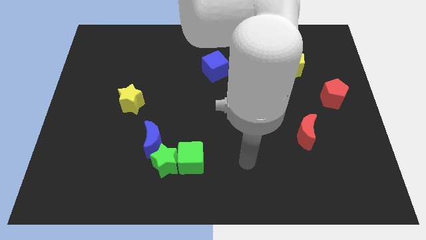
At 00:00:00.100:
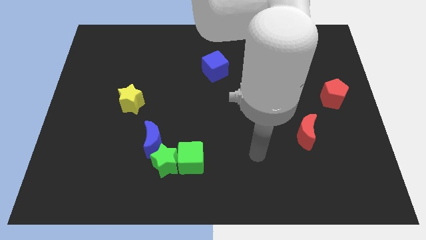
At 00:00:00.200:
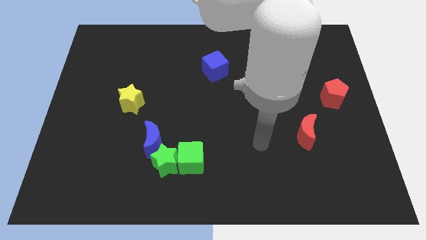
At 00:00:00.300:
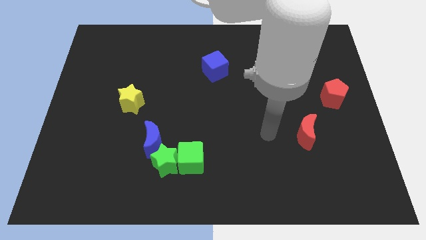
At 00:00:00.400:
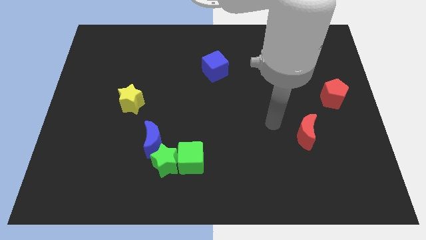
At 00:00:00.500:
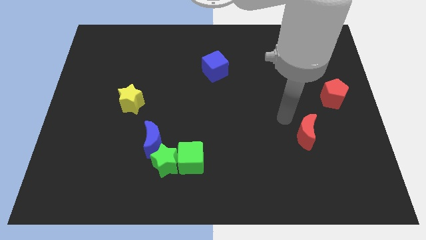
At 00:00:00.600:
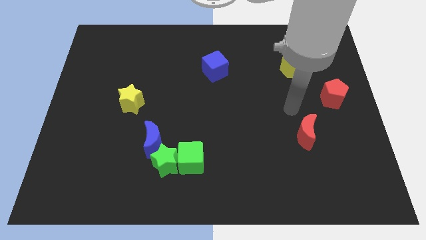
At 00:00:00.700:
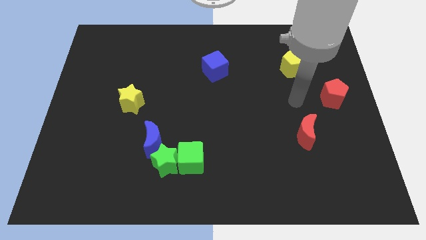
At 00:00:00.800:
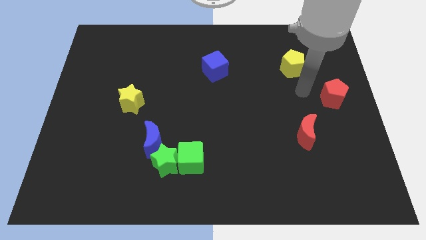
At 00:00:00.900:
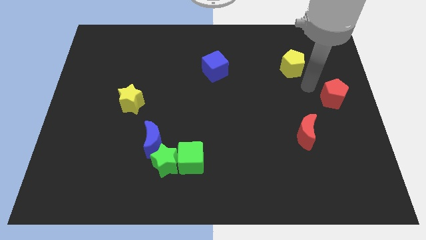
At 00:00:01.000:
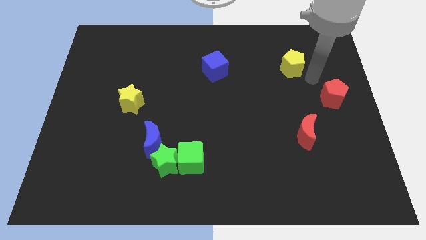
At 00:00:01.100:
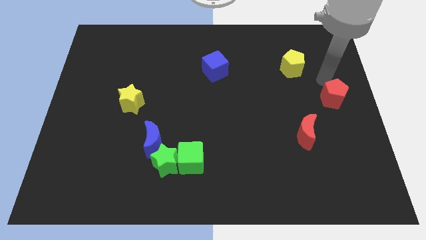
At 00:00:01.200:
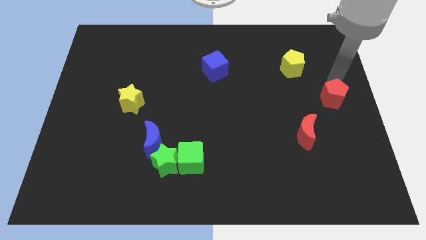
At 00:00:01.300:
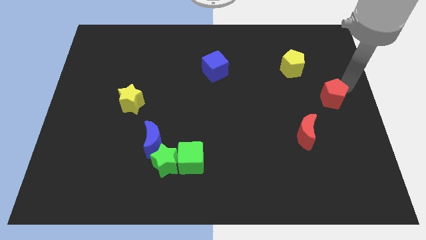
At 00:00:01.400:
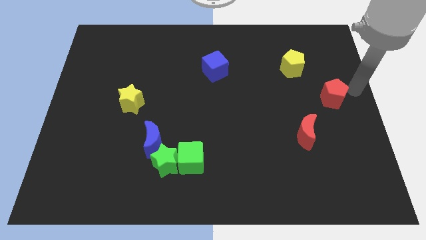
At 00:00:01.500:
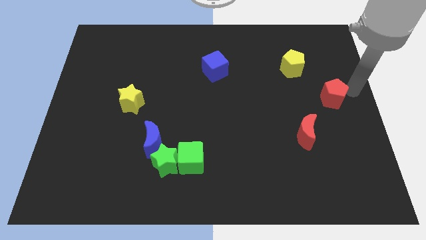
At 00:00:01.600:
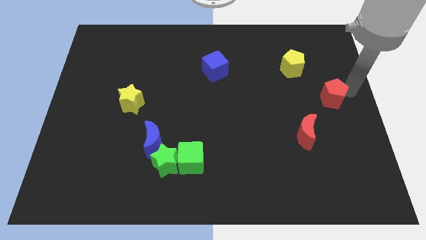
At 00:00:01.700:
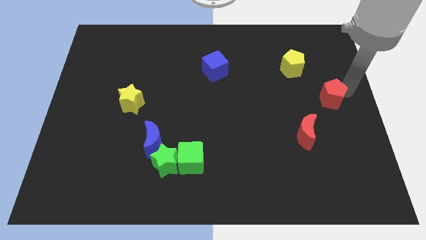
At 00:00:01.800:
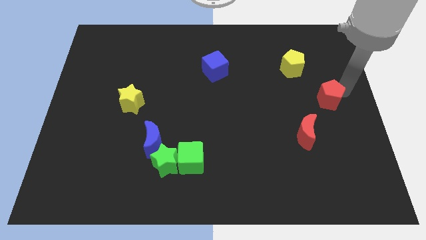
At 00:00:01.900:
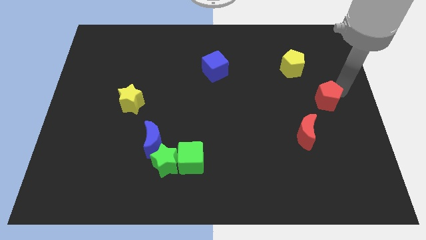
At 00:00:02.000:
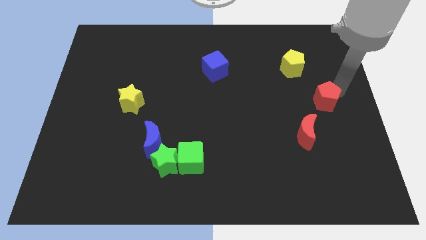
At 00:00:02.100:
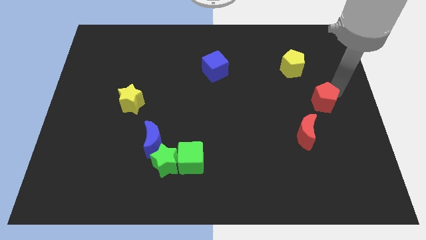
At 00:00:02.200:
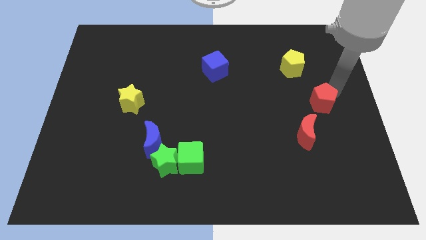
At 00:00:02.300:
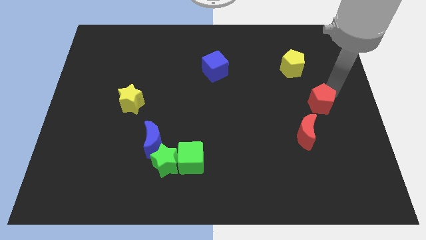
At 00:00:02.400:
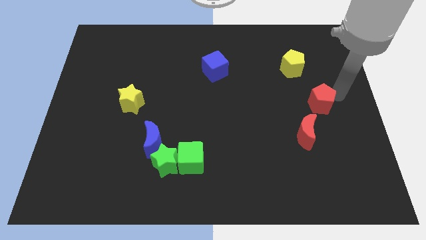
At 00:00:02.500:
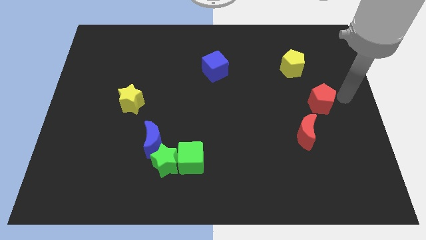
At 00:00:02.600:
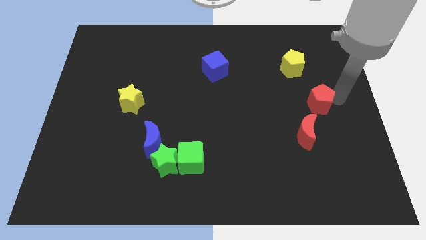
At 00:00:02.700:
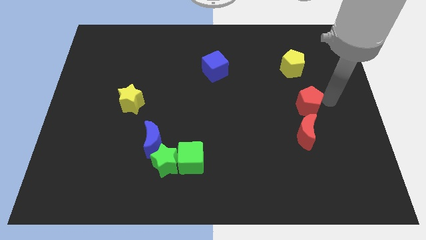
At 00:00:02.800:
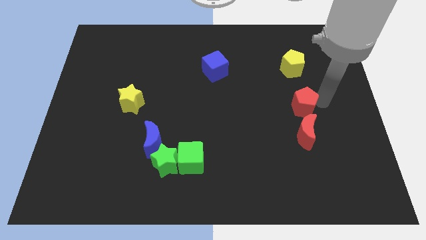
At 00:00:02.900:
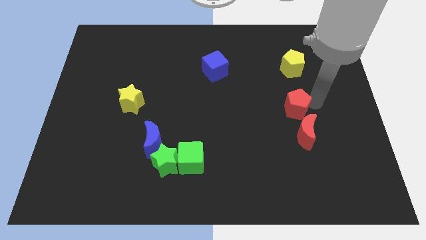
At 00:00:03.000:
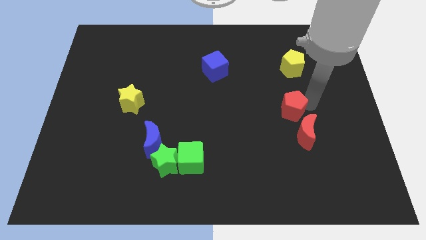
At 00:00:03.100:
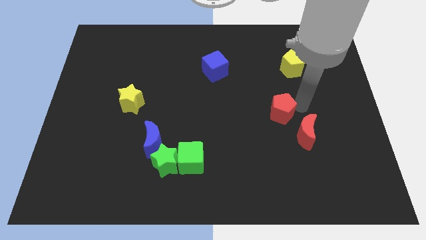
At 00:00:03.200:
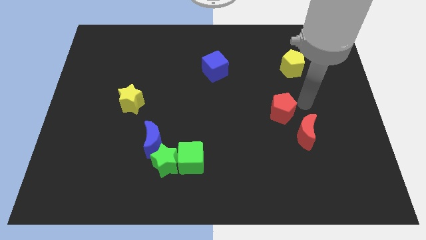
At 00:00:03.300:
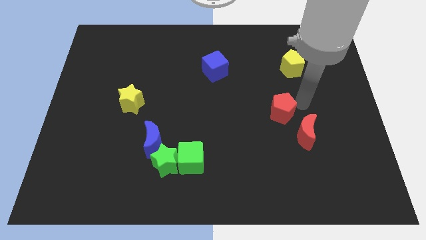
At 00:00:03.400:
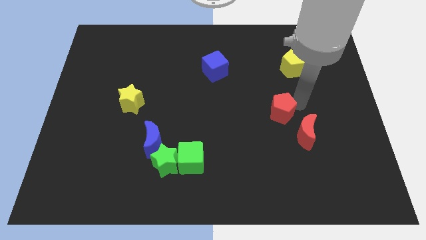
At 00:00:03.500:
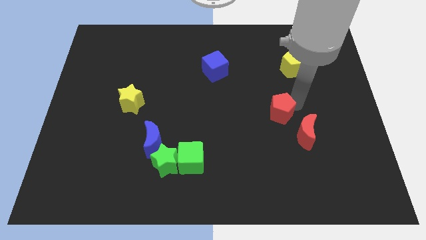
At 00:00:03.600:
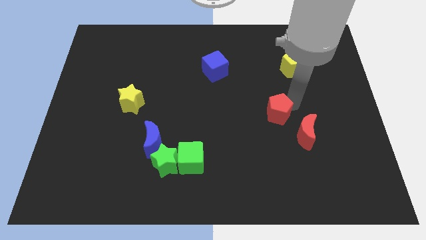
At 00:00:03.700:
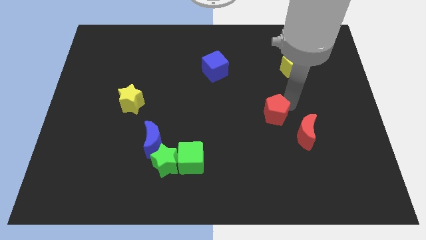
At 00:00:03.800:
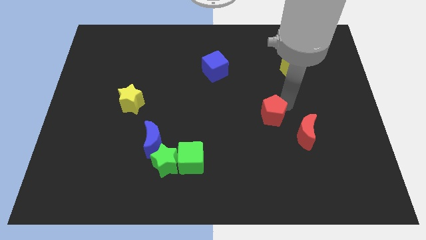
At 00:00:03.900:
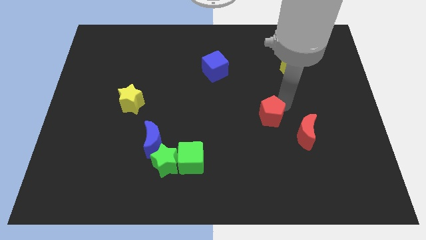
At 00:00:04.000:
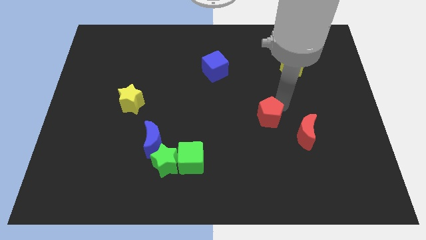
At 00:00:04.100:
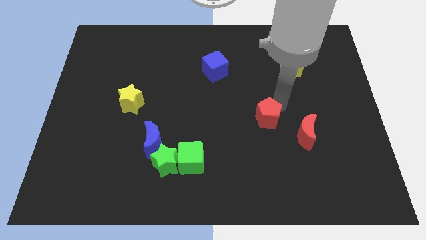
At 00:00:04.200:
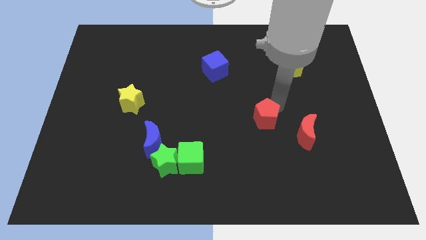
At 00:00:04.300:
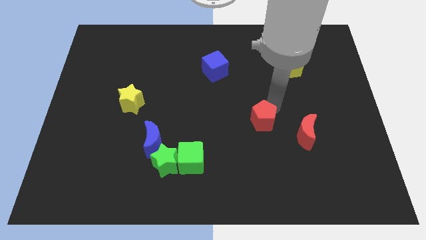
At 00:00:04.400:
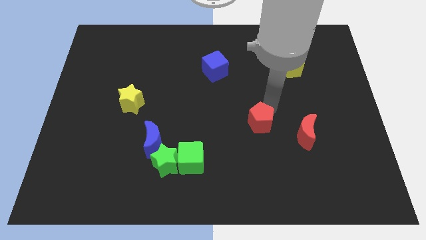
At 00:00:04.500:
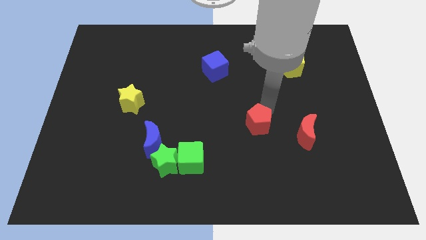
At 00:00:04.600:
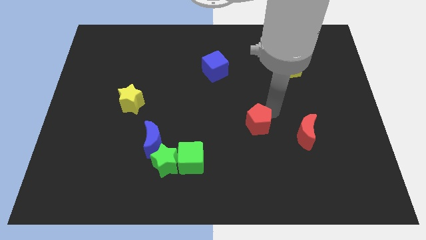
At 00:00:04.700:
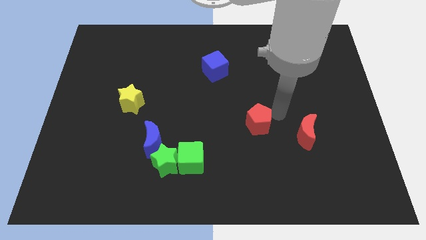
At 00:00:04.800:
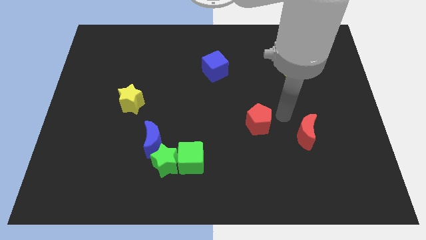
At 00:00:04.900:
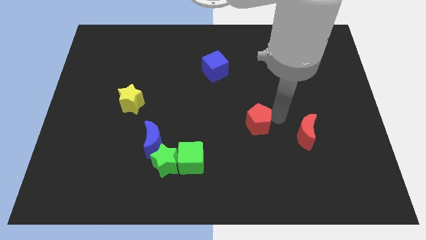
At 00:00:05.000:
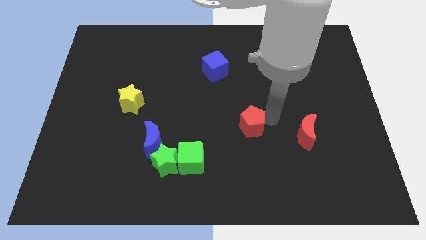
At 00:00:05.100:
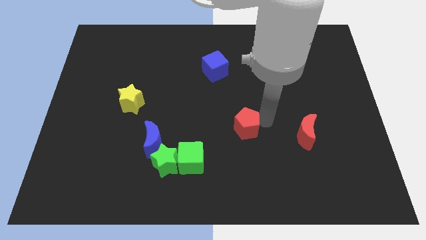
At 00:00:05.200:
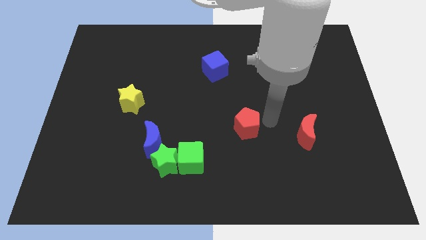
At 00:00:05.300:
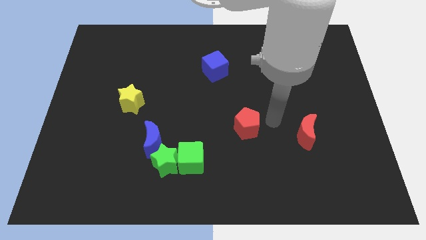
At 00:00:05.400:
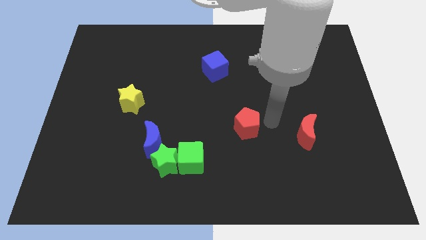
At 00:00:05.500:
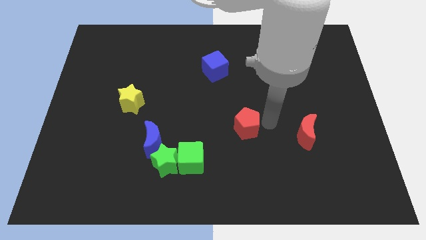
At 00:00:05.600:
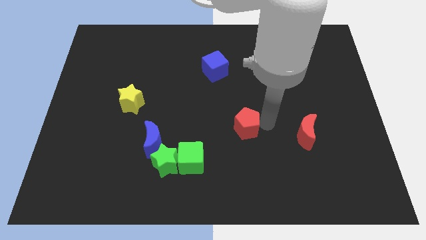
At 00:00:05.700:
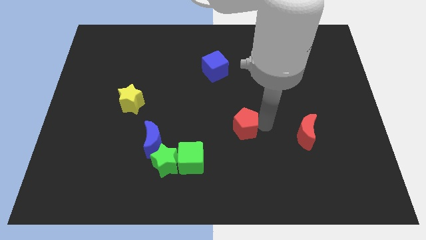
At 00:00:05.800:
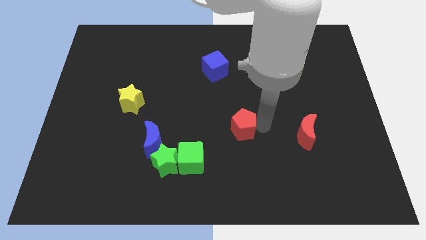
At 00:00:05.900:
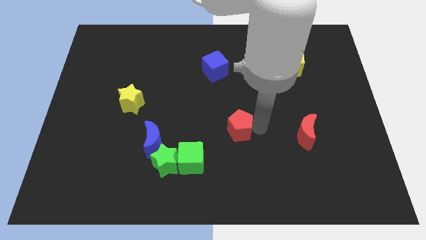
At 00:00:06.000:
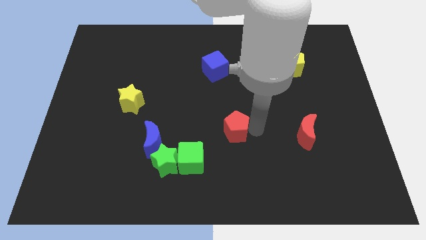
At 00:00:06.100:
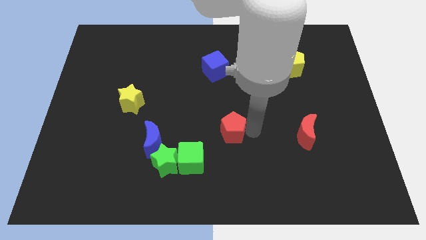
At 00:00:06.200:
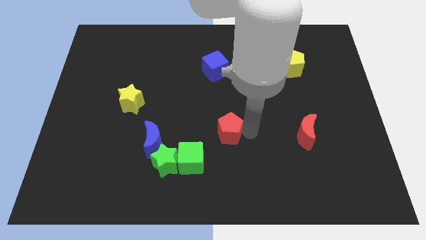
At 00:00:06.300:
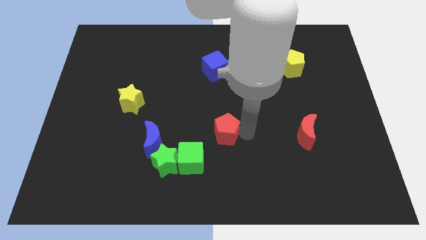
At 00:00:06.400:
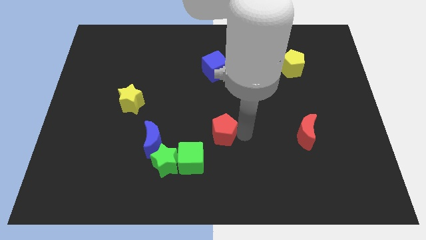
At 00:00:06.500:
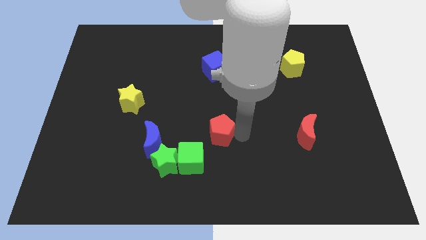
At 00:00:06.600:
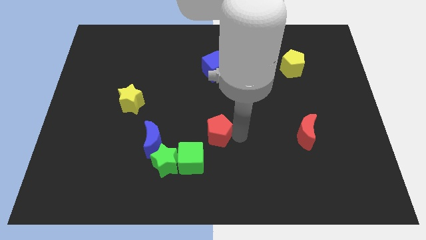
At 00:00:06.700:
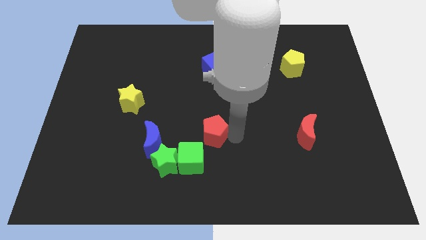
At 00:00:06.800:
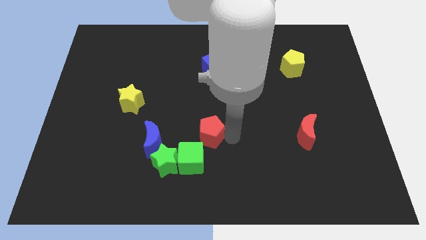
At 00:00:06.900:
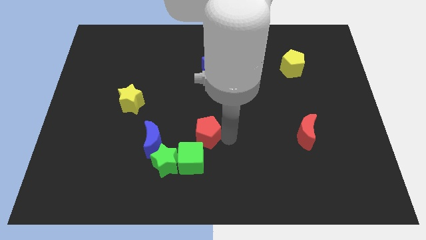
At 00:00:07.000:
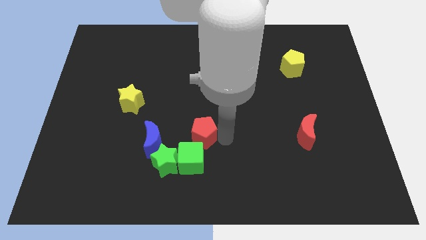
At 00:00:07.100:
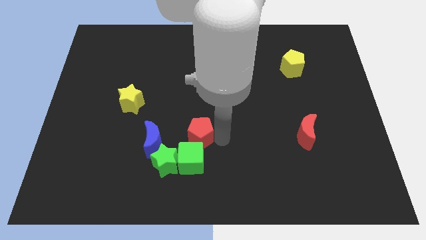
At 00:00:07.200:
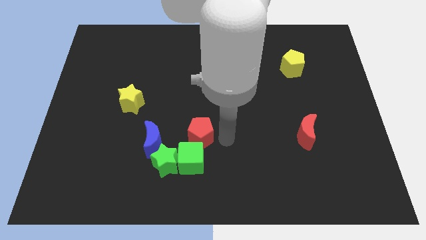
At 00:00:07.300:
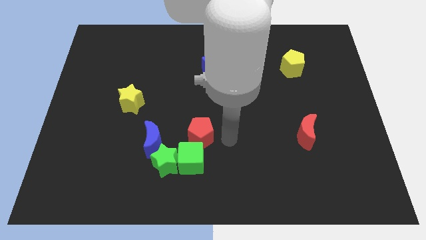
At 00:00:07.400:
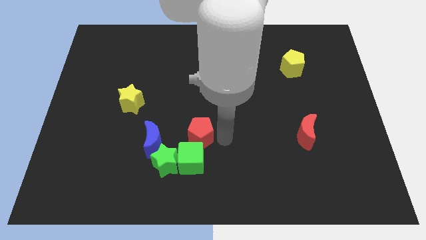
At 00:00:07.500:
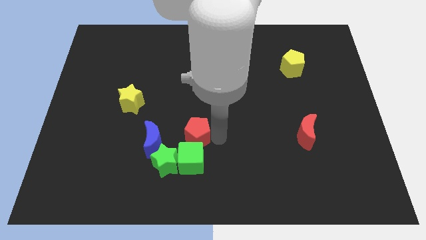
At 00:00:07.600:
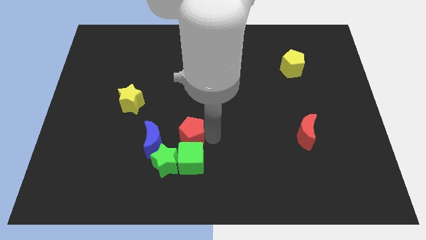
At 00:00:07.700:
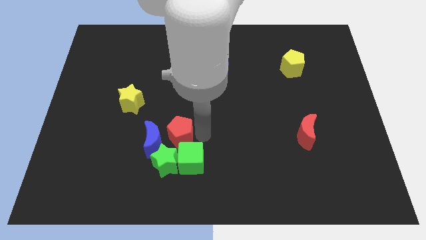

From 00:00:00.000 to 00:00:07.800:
slide the red pentagon to the blue moon

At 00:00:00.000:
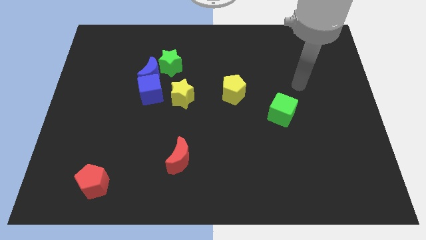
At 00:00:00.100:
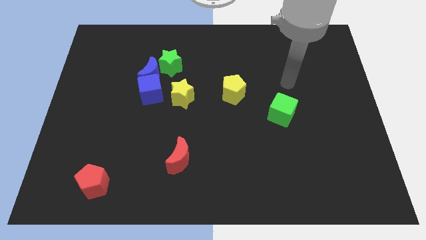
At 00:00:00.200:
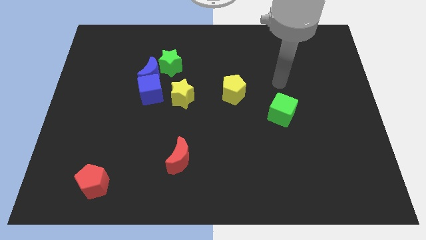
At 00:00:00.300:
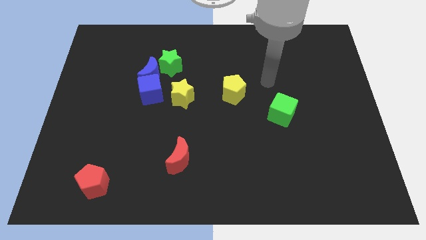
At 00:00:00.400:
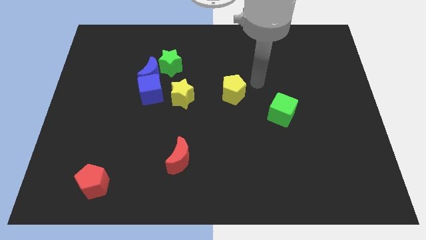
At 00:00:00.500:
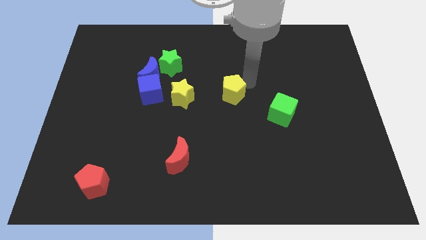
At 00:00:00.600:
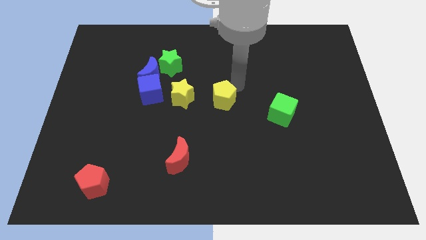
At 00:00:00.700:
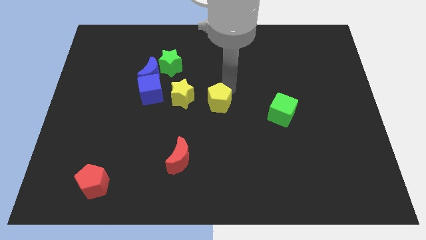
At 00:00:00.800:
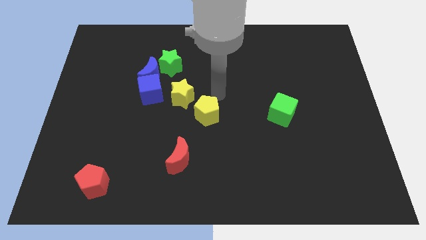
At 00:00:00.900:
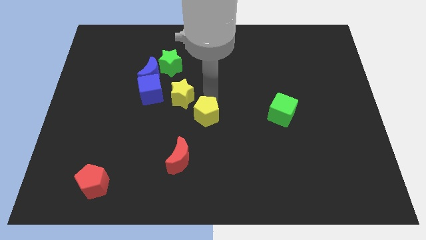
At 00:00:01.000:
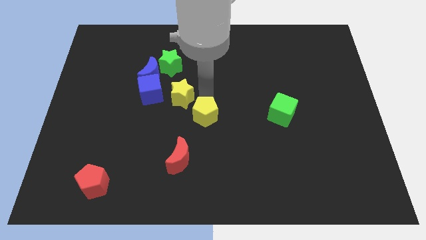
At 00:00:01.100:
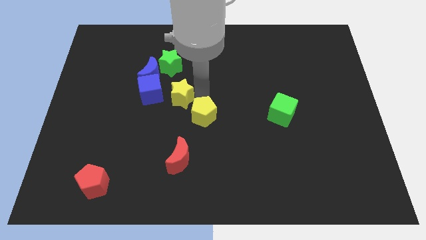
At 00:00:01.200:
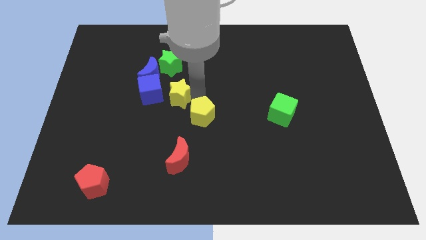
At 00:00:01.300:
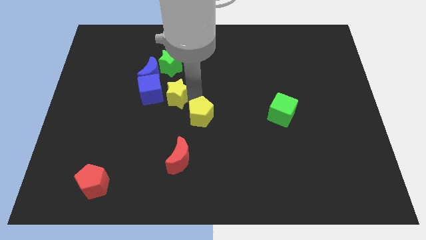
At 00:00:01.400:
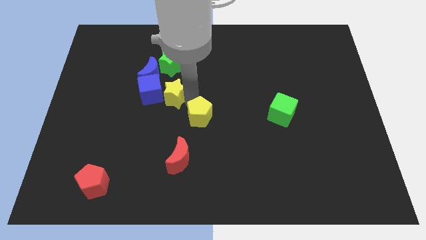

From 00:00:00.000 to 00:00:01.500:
move the yellow star next to the blue cube
